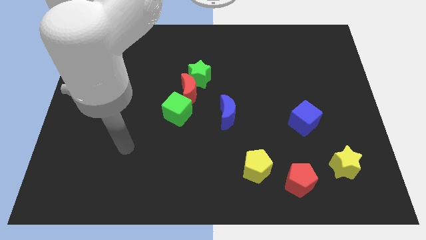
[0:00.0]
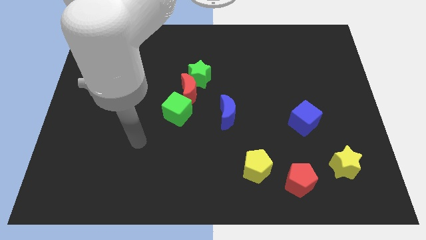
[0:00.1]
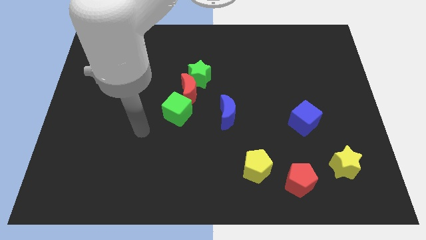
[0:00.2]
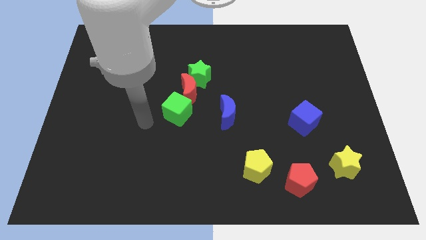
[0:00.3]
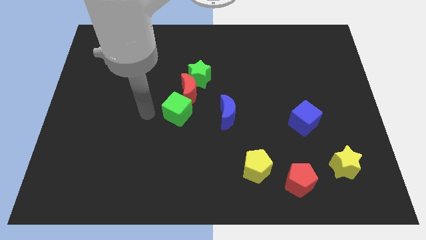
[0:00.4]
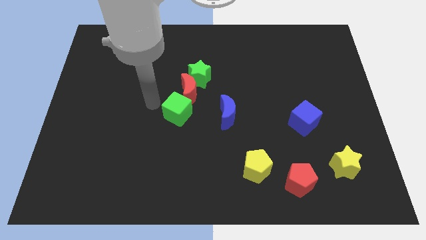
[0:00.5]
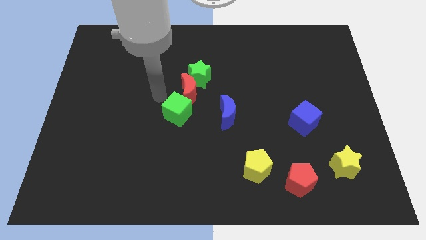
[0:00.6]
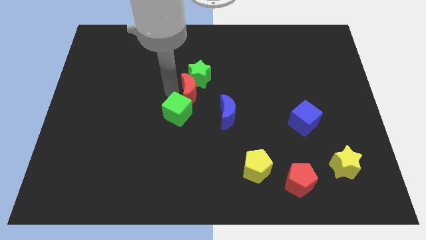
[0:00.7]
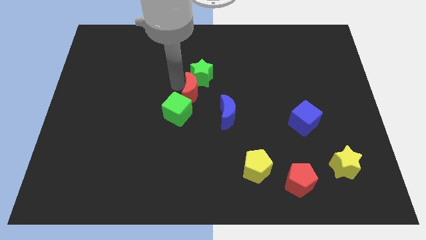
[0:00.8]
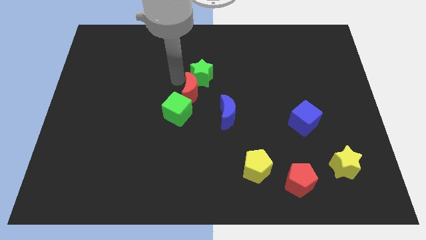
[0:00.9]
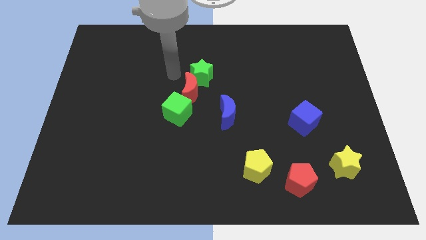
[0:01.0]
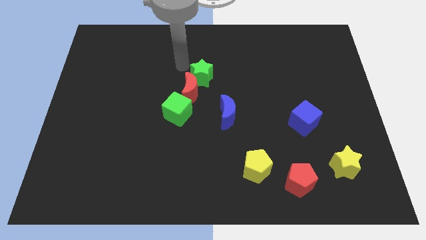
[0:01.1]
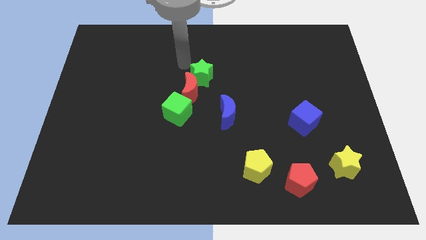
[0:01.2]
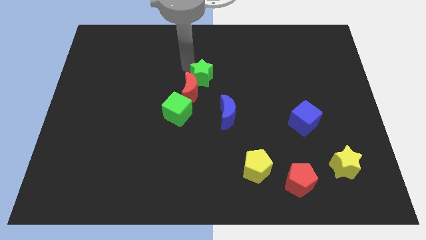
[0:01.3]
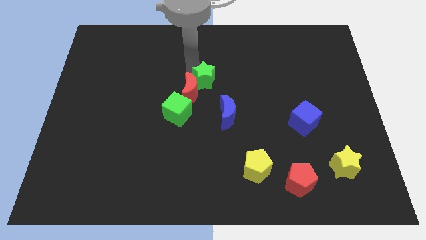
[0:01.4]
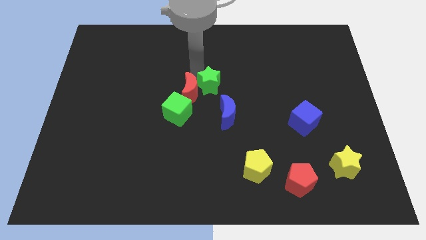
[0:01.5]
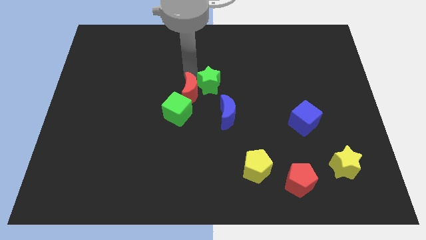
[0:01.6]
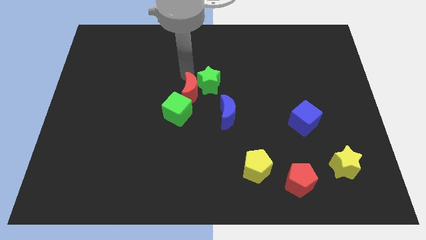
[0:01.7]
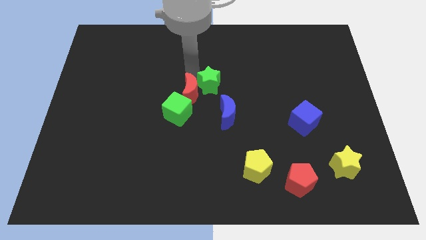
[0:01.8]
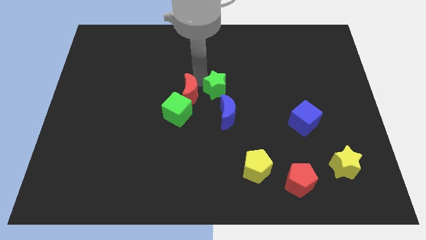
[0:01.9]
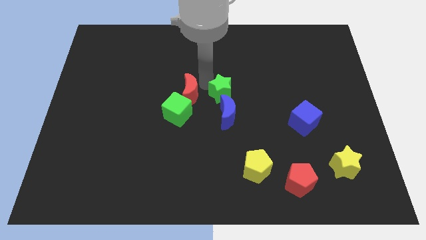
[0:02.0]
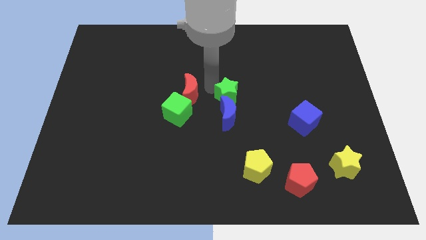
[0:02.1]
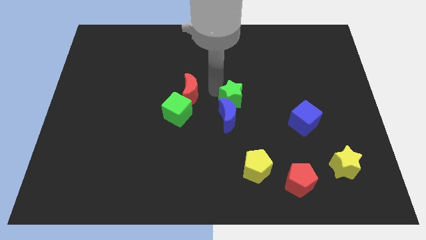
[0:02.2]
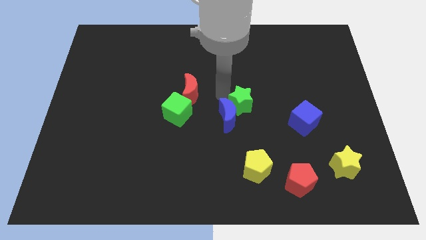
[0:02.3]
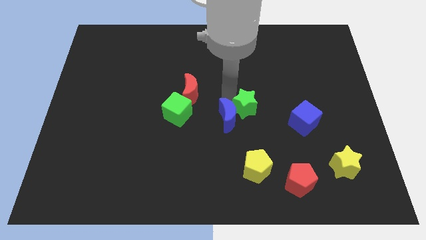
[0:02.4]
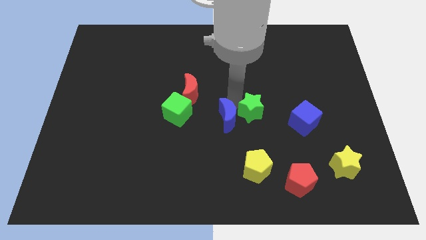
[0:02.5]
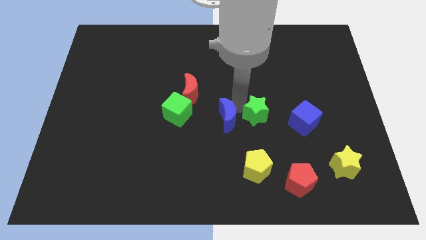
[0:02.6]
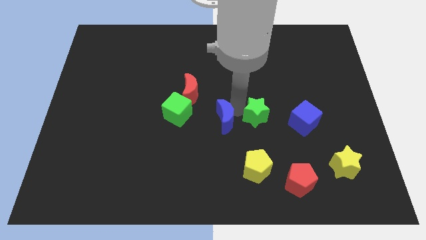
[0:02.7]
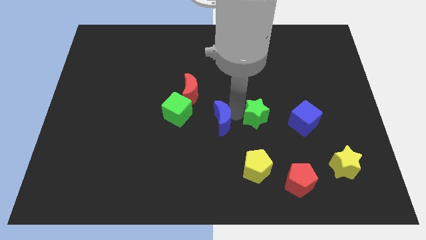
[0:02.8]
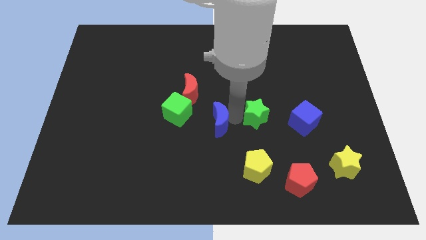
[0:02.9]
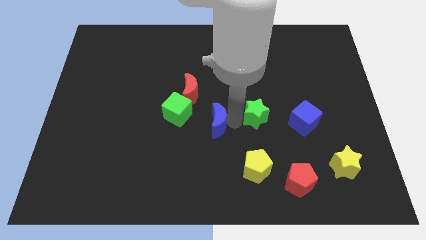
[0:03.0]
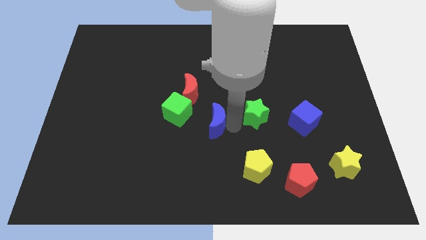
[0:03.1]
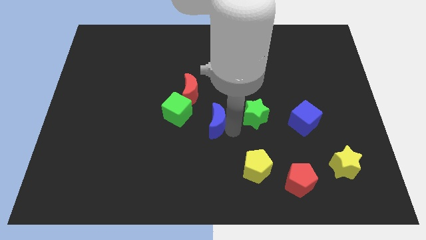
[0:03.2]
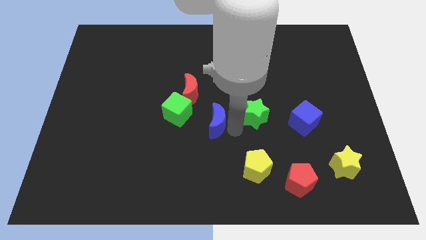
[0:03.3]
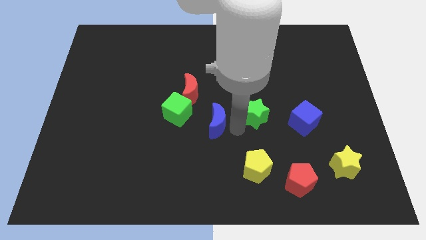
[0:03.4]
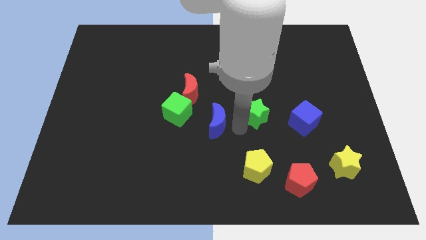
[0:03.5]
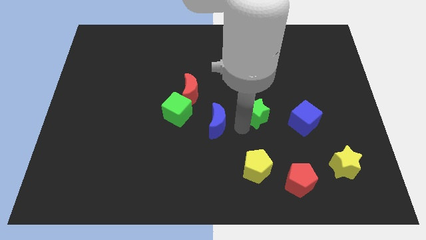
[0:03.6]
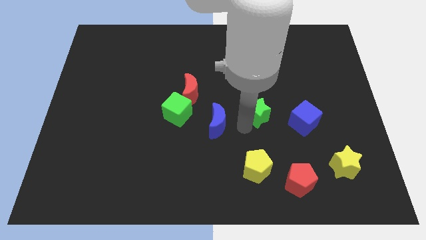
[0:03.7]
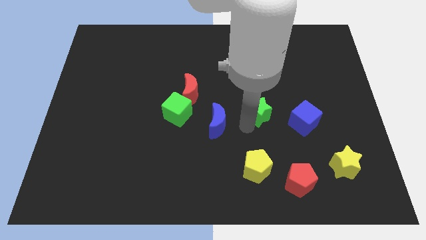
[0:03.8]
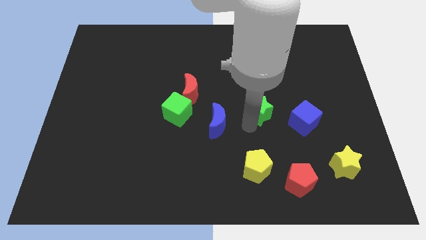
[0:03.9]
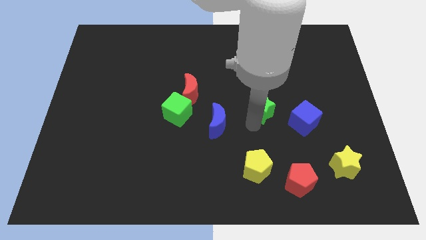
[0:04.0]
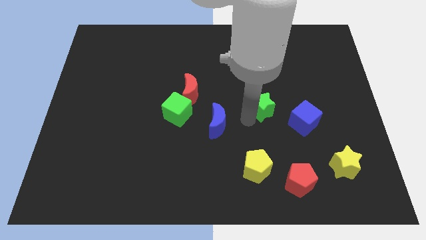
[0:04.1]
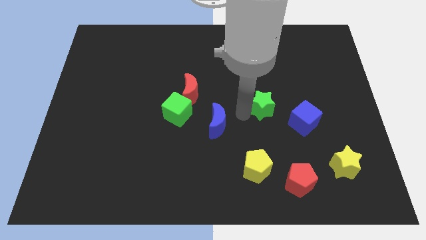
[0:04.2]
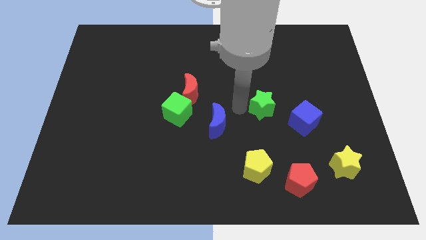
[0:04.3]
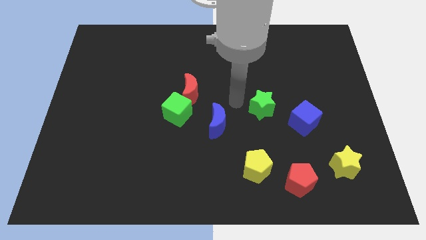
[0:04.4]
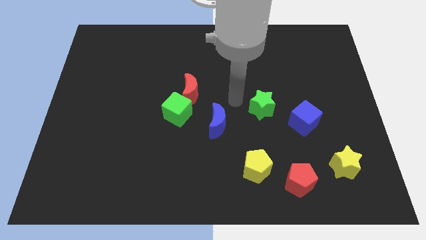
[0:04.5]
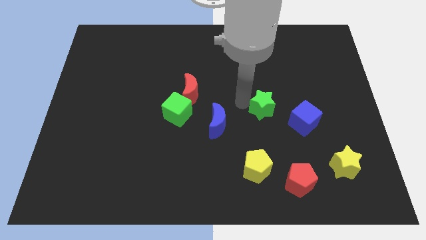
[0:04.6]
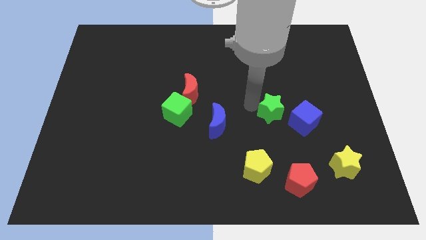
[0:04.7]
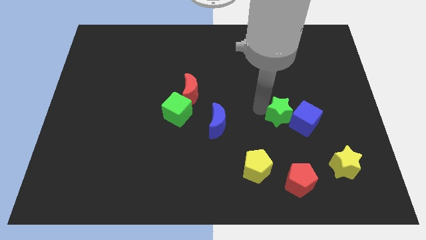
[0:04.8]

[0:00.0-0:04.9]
put the green star close to the blue cube

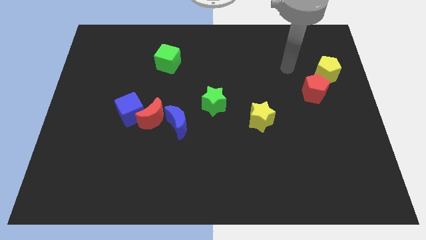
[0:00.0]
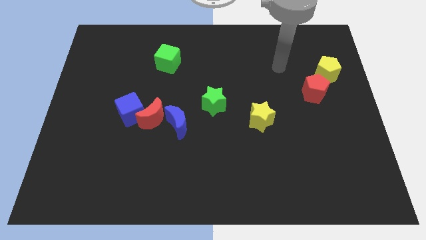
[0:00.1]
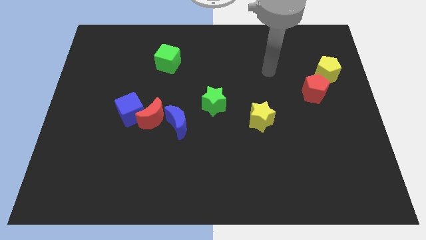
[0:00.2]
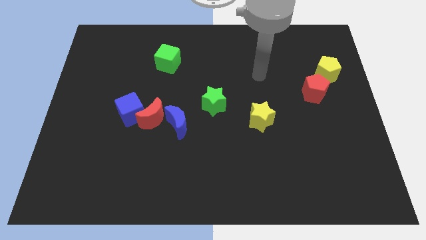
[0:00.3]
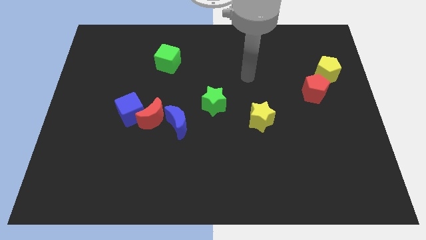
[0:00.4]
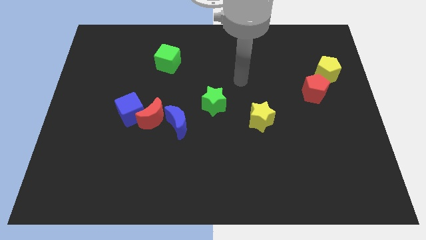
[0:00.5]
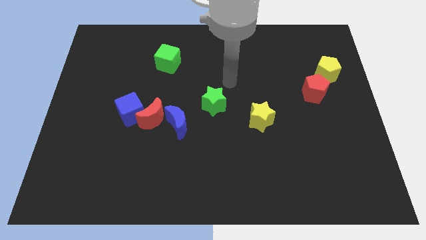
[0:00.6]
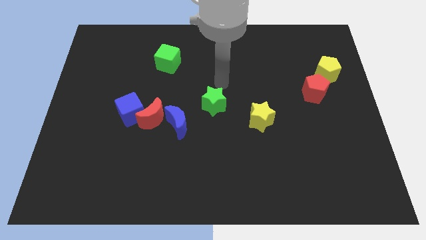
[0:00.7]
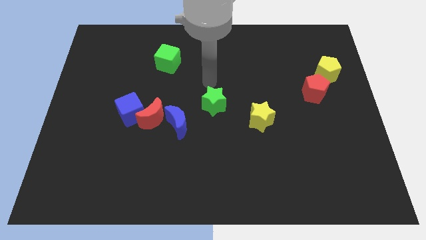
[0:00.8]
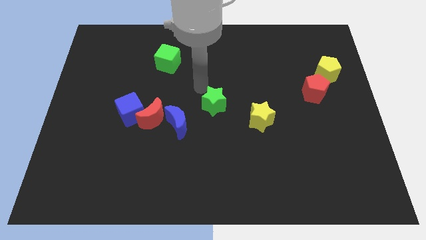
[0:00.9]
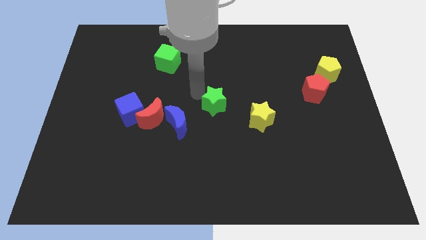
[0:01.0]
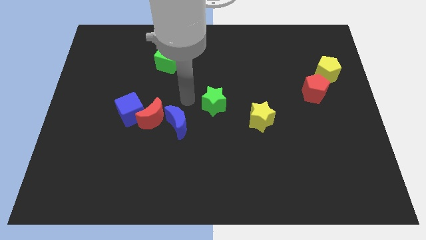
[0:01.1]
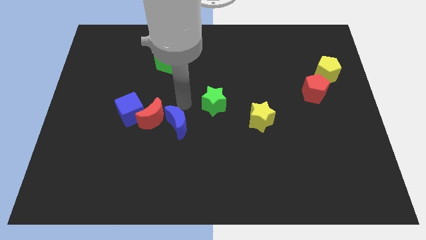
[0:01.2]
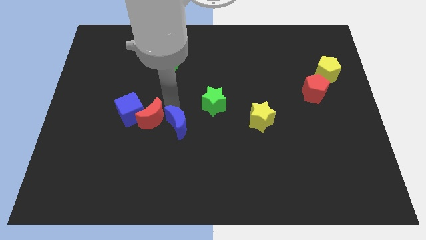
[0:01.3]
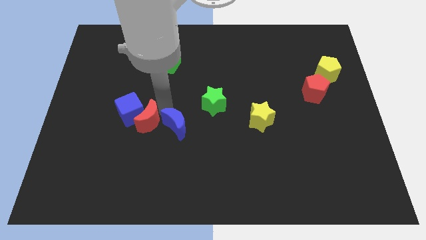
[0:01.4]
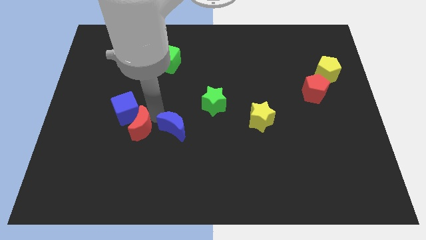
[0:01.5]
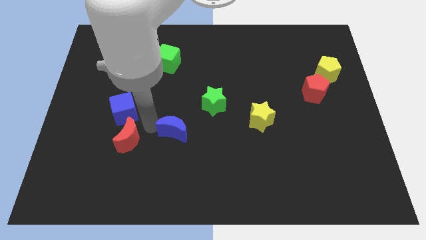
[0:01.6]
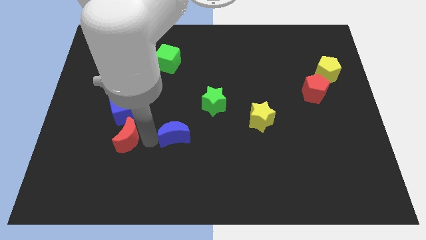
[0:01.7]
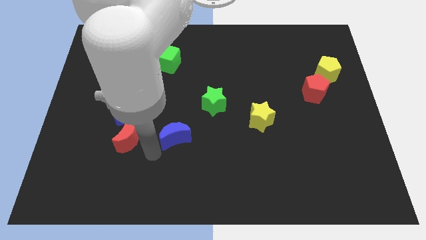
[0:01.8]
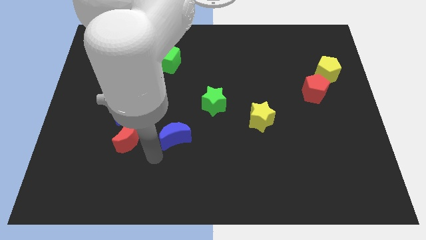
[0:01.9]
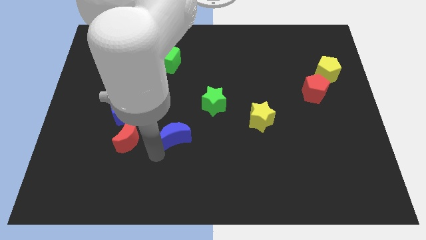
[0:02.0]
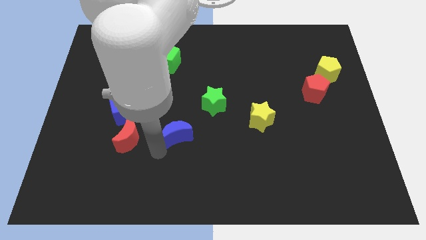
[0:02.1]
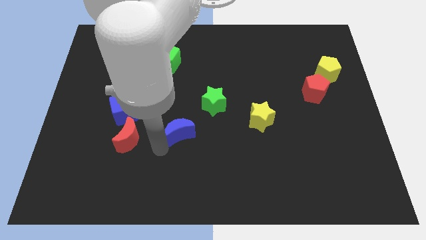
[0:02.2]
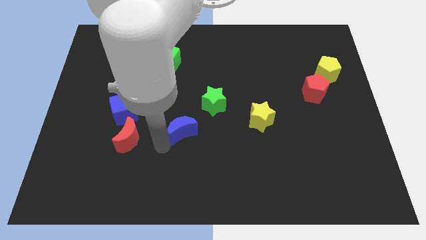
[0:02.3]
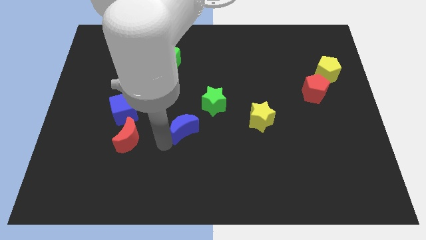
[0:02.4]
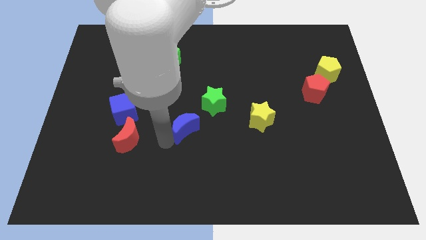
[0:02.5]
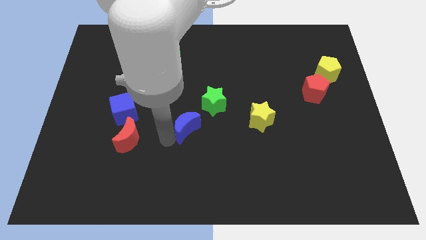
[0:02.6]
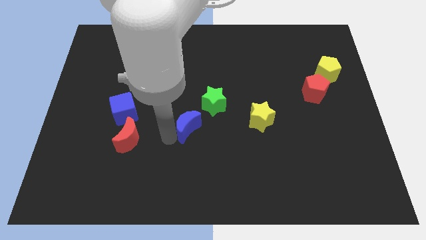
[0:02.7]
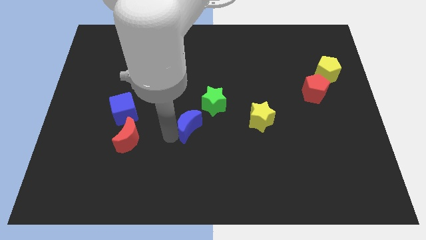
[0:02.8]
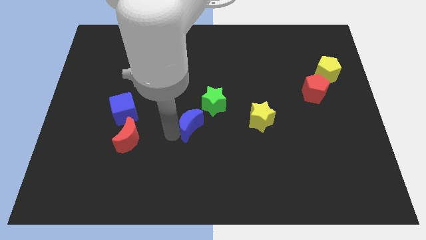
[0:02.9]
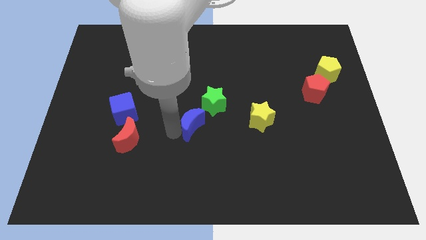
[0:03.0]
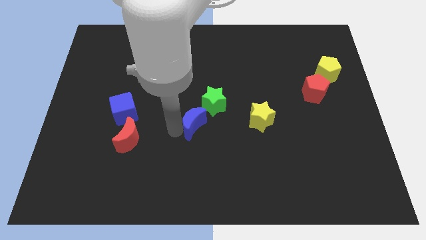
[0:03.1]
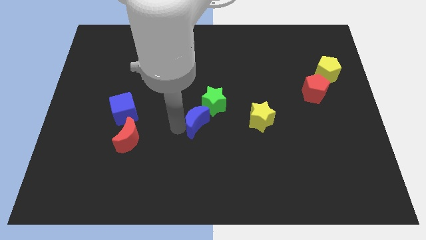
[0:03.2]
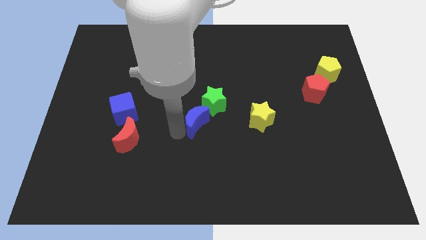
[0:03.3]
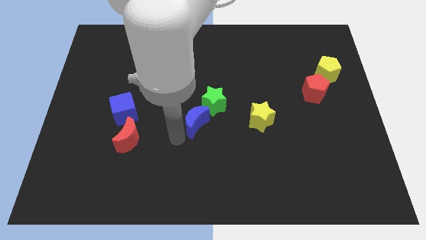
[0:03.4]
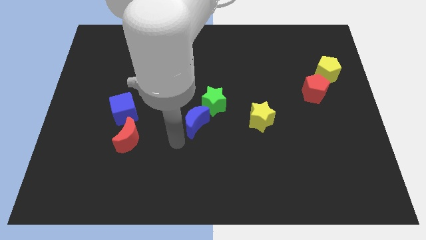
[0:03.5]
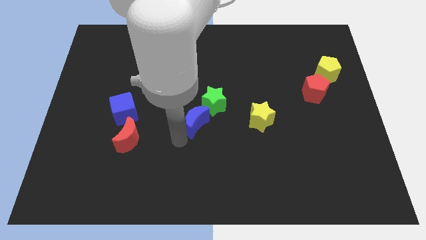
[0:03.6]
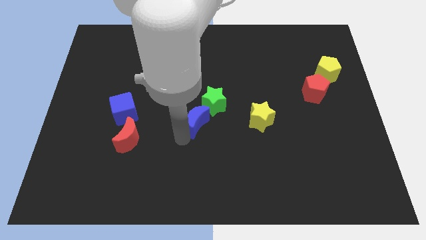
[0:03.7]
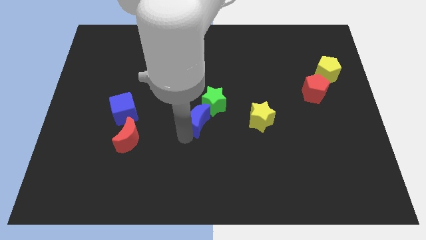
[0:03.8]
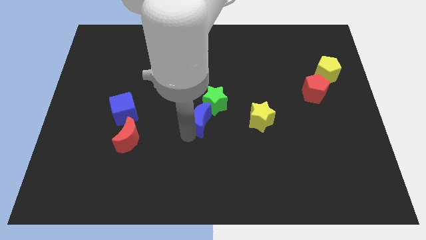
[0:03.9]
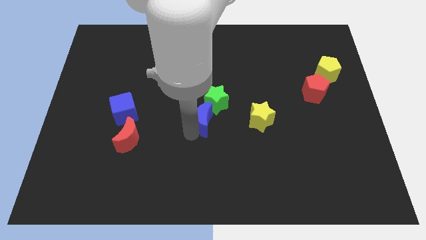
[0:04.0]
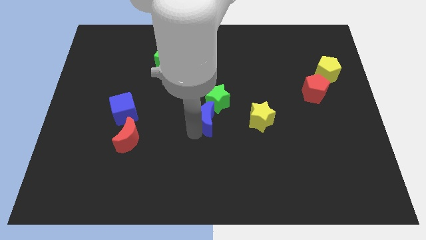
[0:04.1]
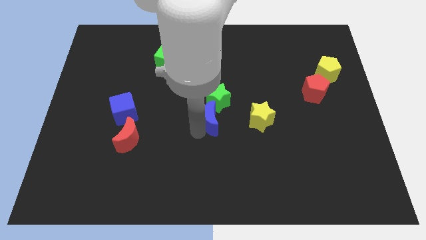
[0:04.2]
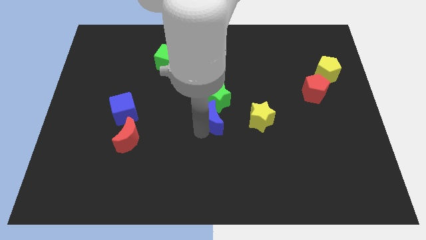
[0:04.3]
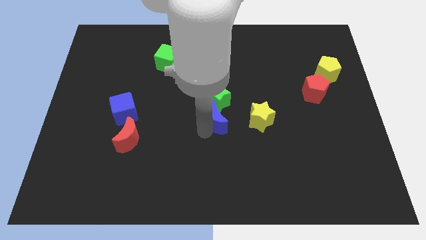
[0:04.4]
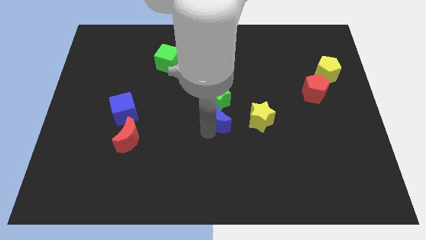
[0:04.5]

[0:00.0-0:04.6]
push the blue moon to the green star
